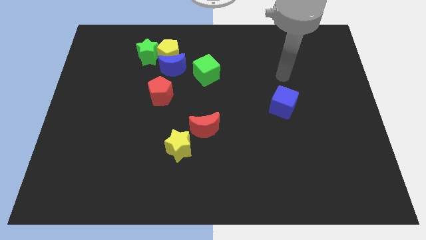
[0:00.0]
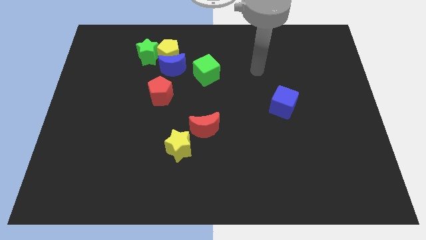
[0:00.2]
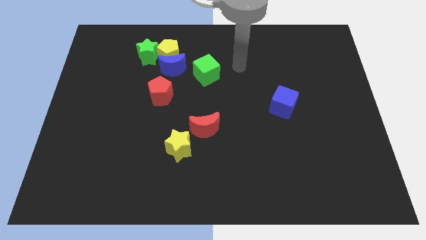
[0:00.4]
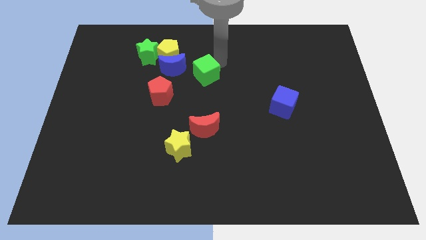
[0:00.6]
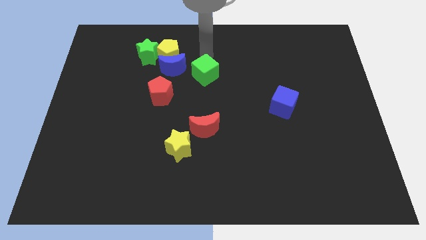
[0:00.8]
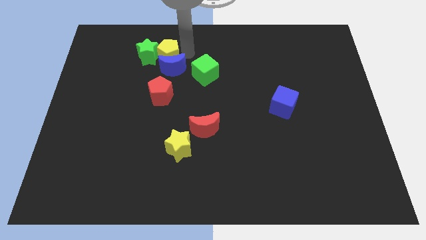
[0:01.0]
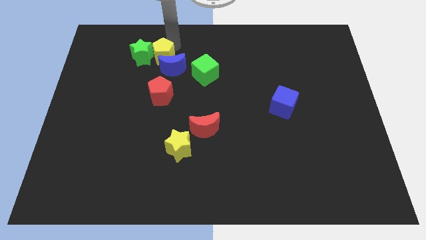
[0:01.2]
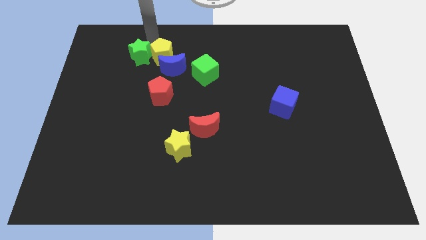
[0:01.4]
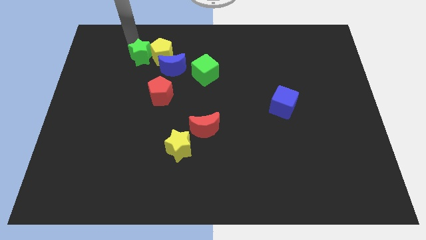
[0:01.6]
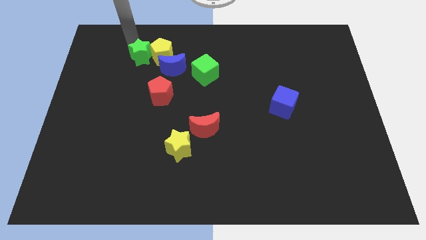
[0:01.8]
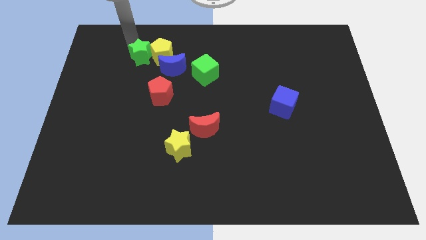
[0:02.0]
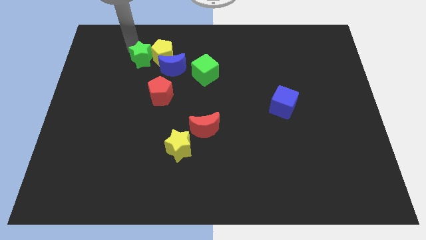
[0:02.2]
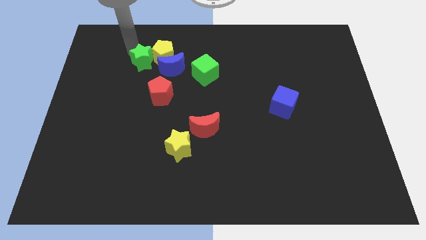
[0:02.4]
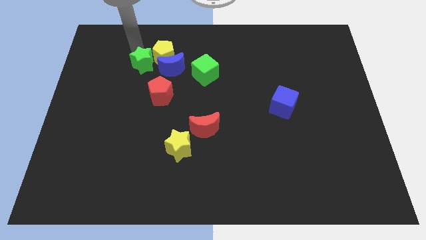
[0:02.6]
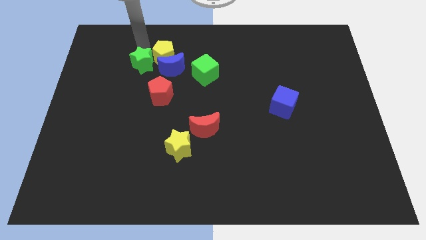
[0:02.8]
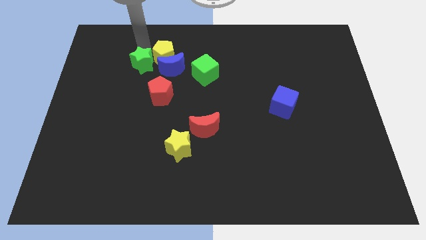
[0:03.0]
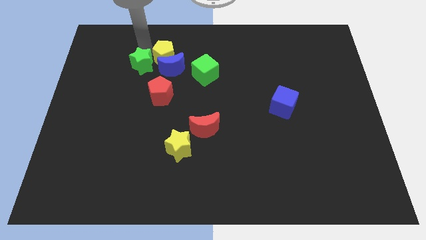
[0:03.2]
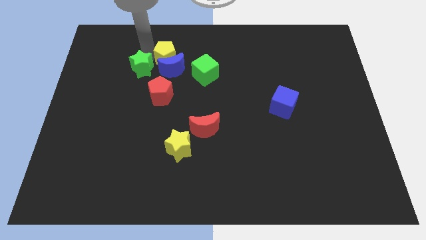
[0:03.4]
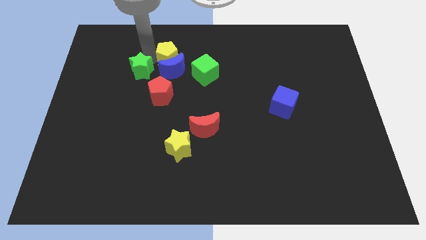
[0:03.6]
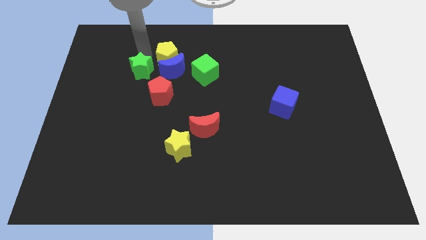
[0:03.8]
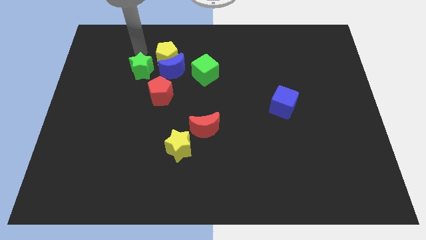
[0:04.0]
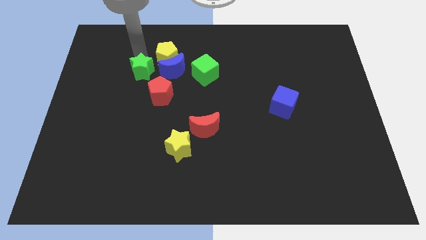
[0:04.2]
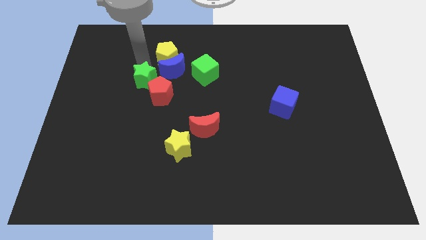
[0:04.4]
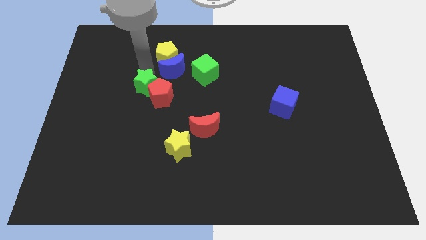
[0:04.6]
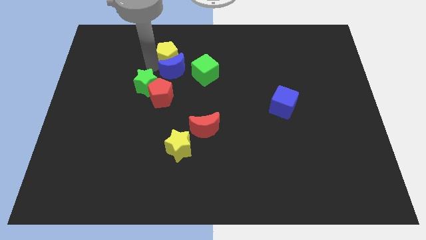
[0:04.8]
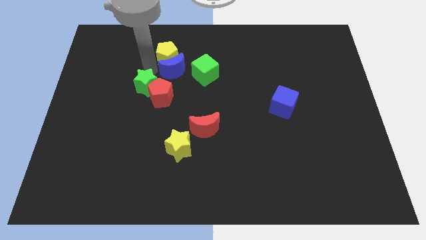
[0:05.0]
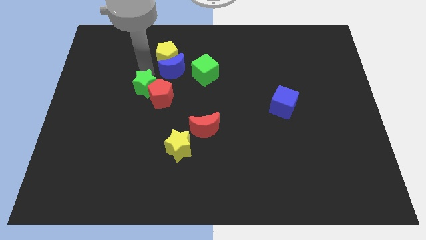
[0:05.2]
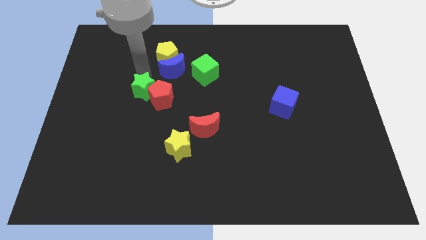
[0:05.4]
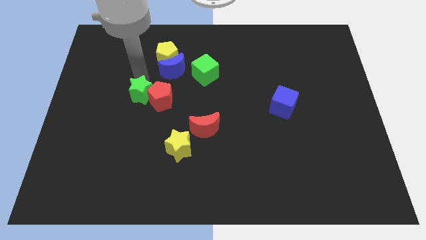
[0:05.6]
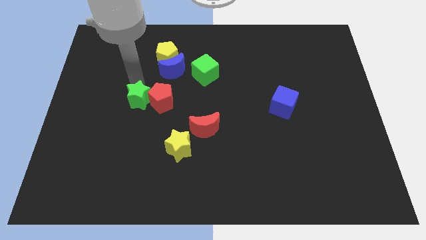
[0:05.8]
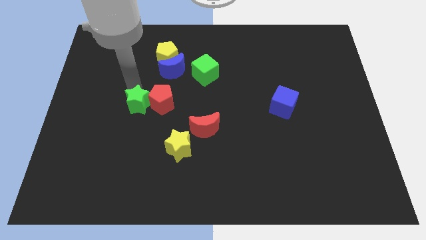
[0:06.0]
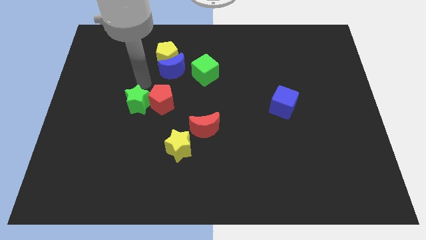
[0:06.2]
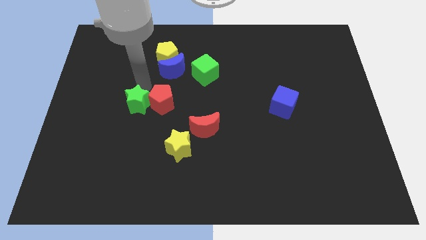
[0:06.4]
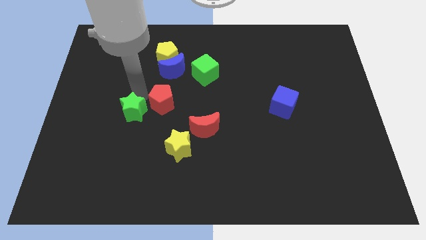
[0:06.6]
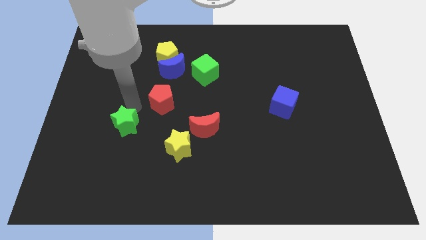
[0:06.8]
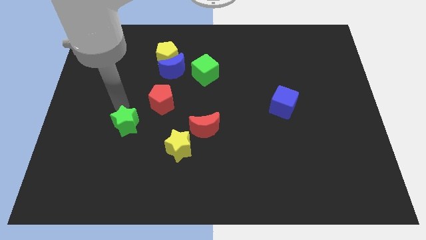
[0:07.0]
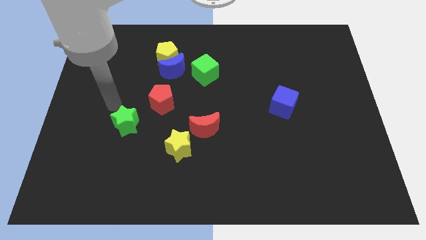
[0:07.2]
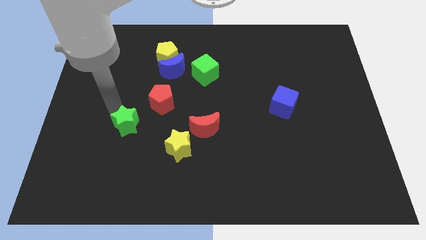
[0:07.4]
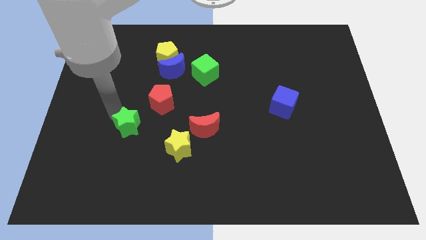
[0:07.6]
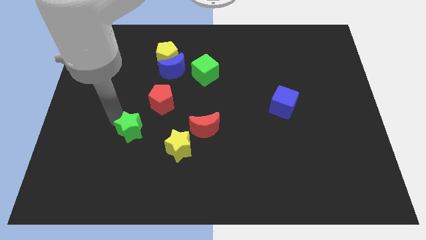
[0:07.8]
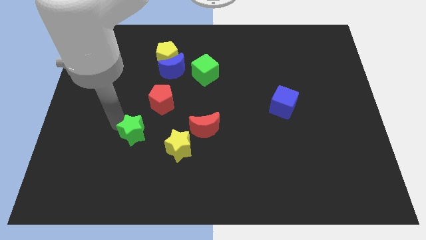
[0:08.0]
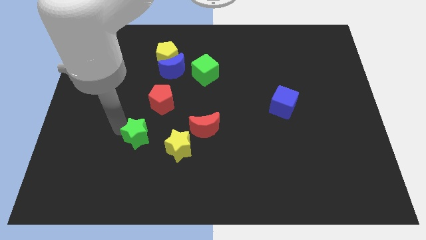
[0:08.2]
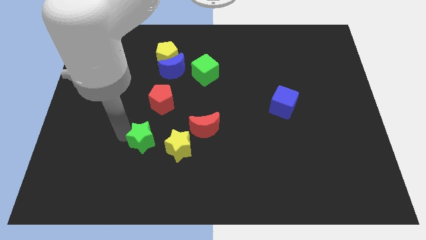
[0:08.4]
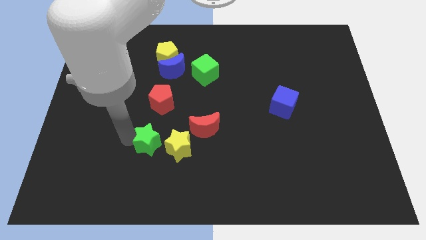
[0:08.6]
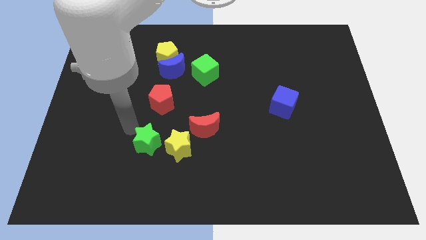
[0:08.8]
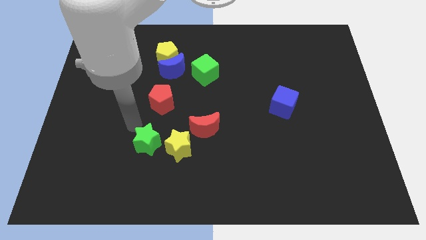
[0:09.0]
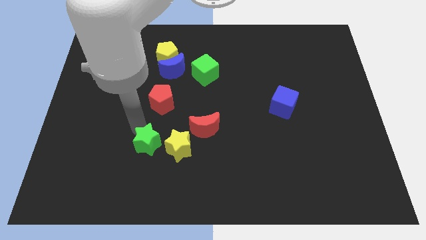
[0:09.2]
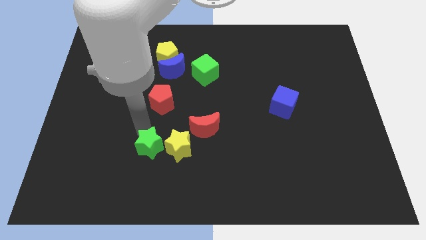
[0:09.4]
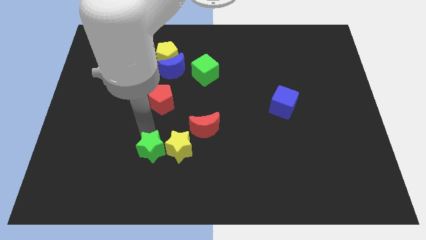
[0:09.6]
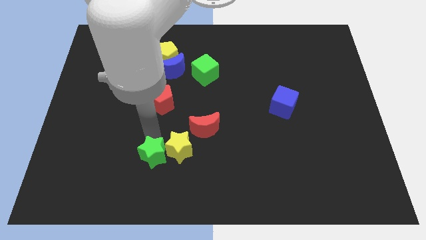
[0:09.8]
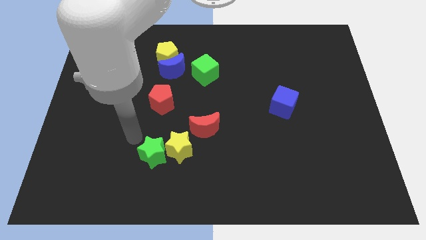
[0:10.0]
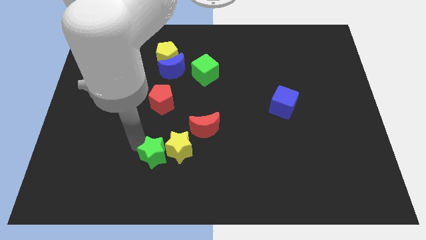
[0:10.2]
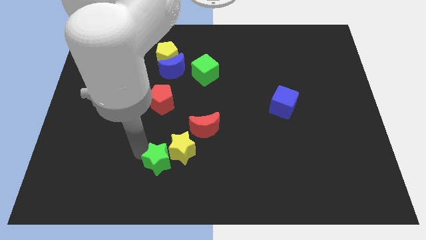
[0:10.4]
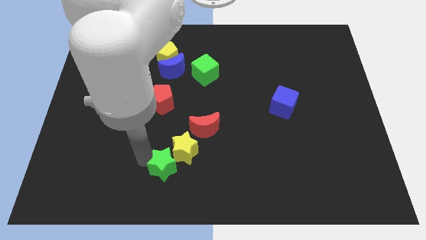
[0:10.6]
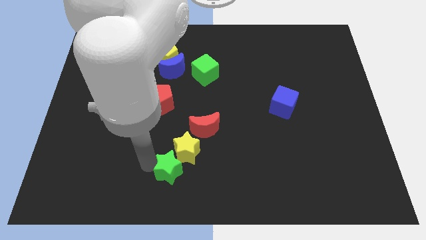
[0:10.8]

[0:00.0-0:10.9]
move the green star to the bottom side
